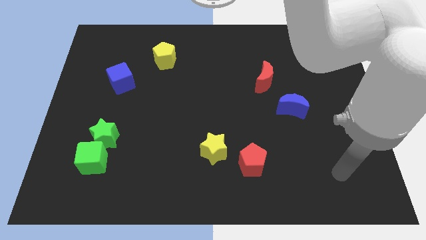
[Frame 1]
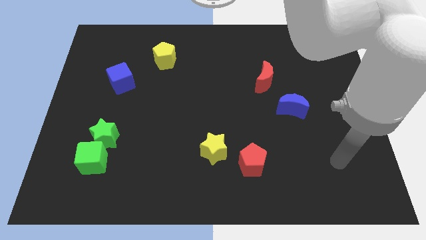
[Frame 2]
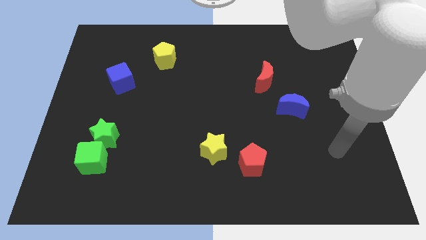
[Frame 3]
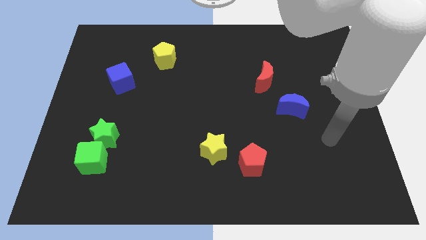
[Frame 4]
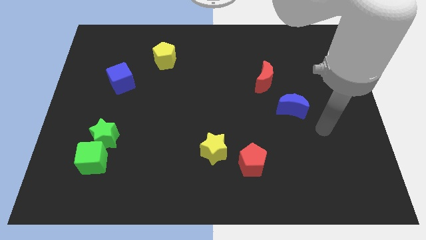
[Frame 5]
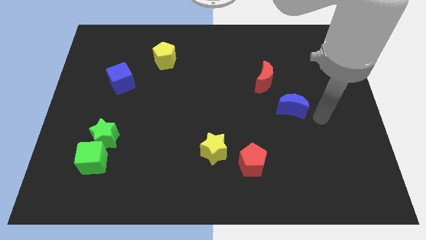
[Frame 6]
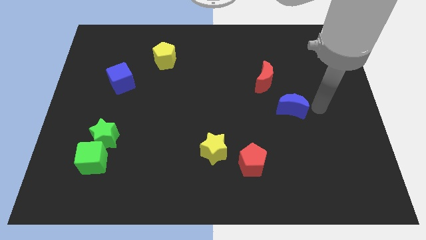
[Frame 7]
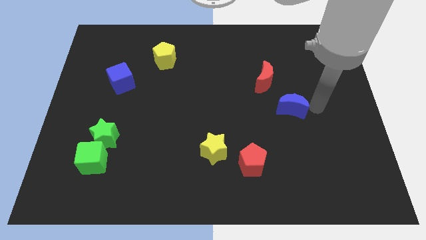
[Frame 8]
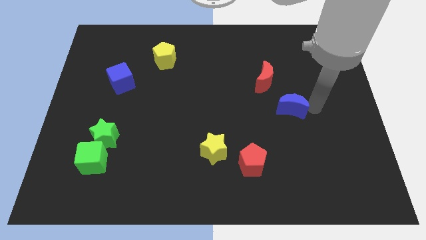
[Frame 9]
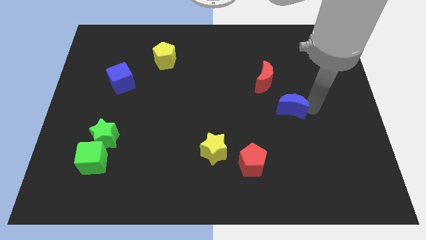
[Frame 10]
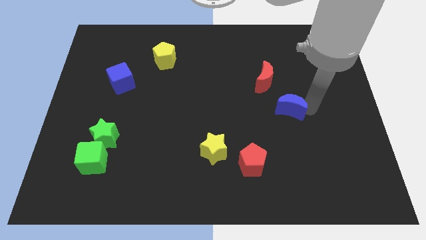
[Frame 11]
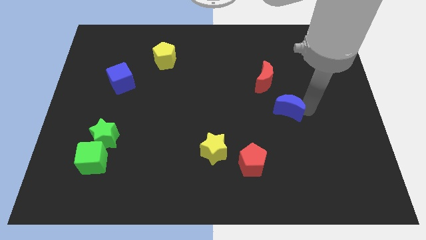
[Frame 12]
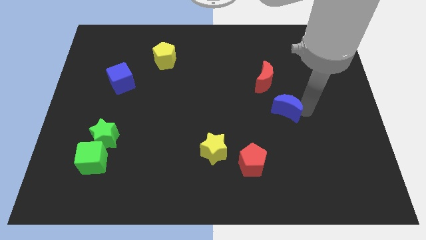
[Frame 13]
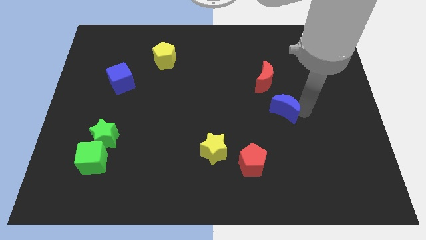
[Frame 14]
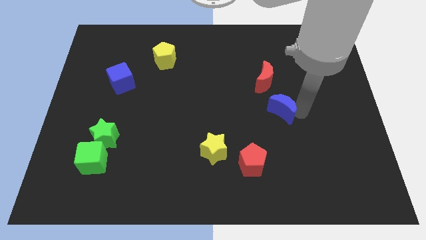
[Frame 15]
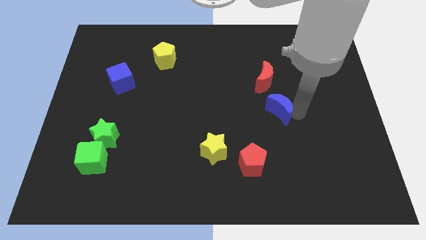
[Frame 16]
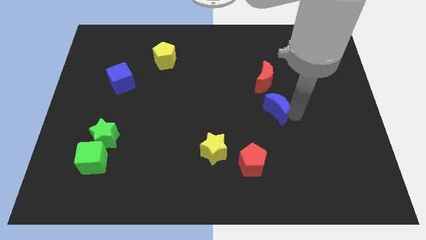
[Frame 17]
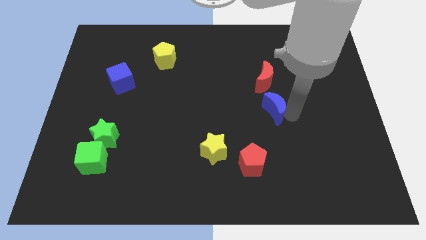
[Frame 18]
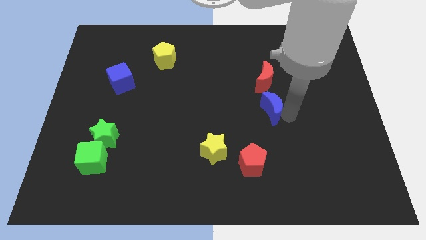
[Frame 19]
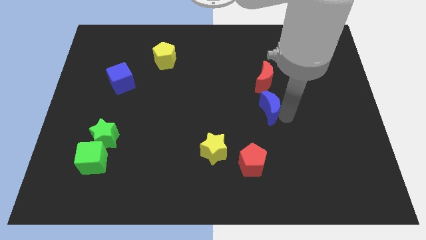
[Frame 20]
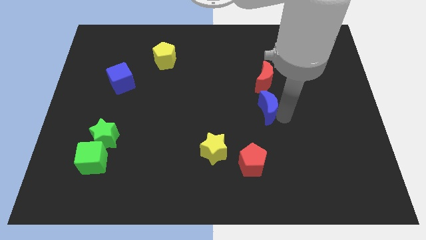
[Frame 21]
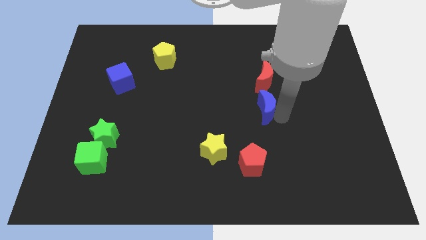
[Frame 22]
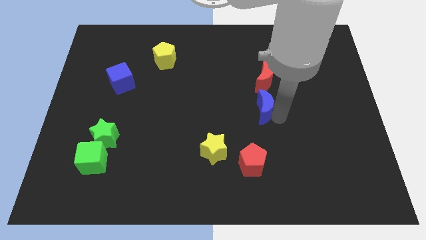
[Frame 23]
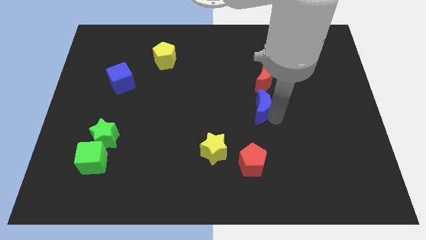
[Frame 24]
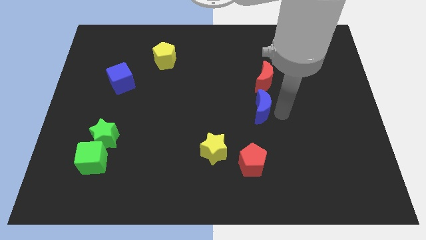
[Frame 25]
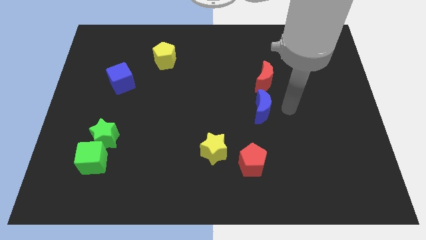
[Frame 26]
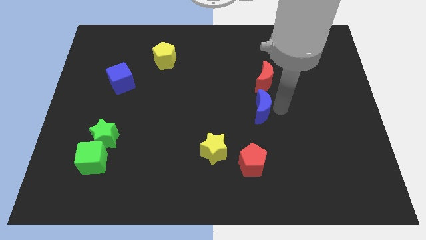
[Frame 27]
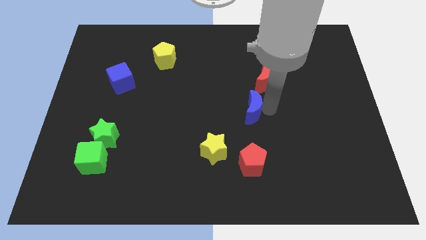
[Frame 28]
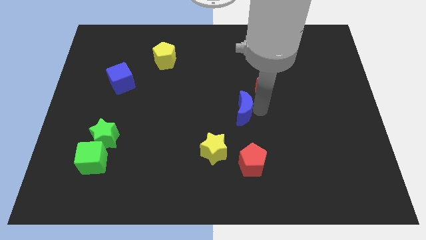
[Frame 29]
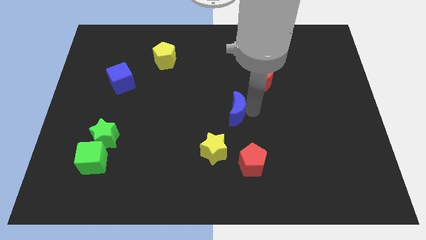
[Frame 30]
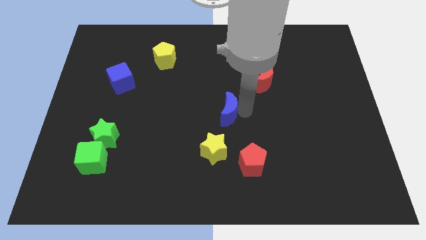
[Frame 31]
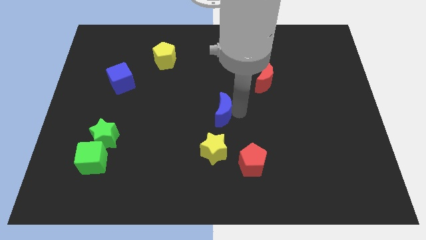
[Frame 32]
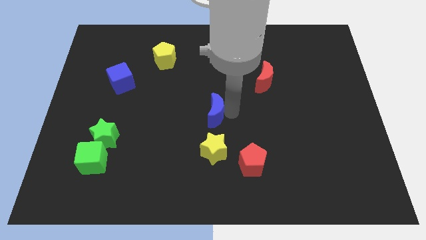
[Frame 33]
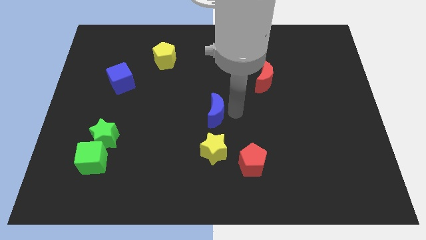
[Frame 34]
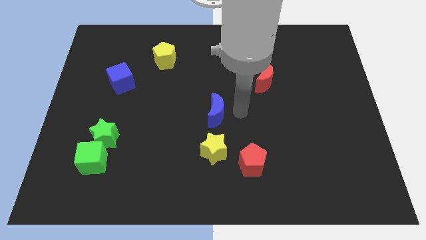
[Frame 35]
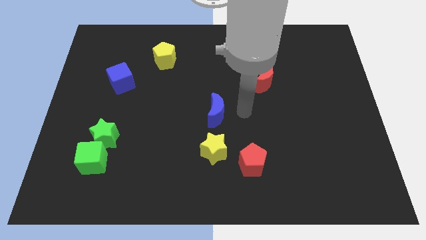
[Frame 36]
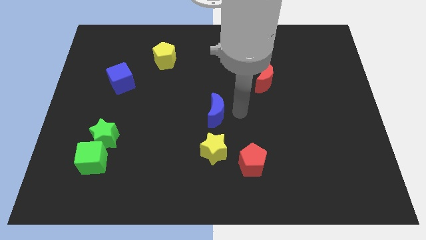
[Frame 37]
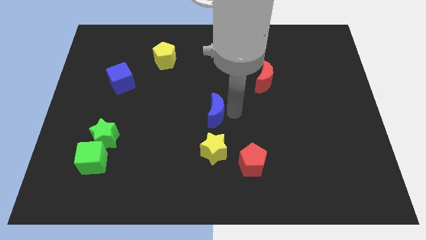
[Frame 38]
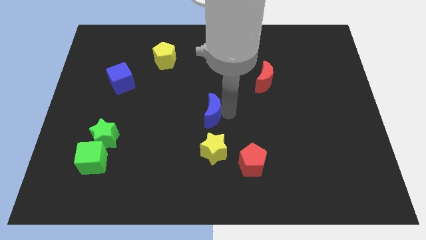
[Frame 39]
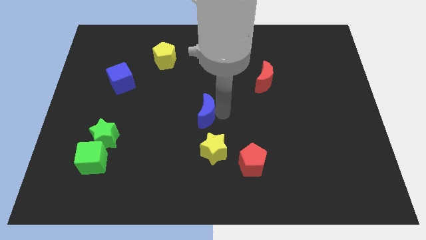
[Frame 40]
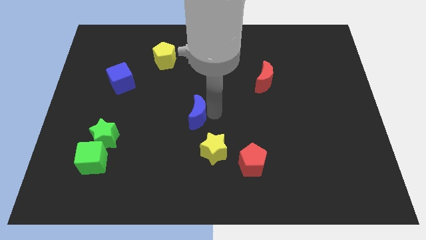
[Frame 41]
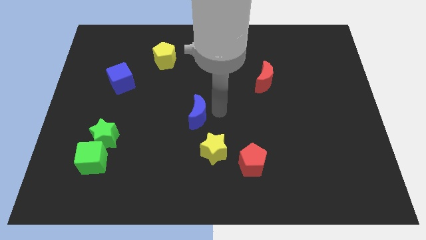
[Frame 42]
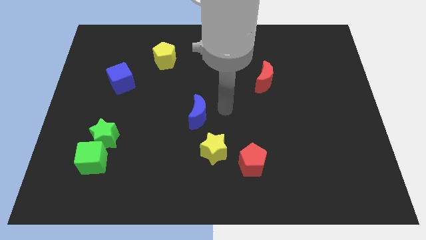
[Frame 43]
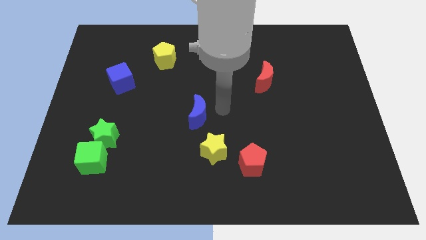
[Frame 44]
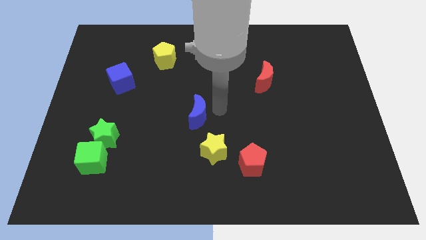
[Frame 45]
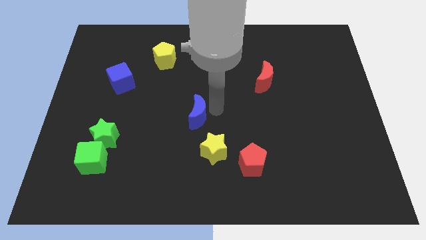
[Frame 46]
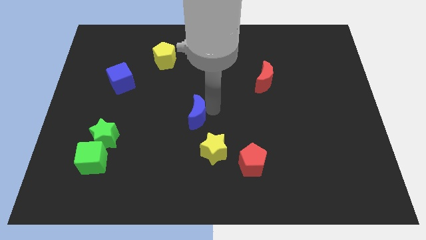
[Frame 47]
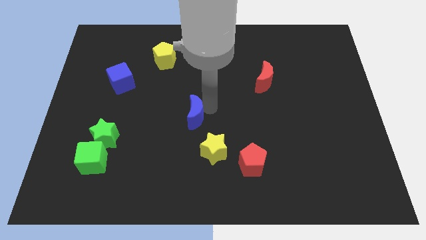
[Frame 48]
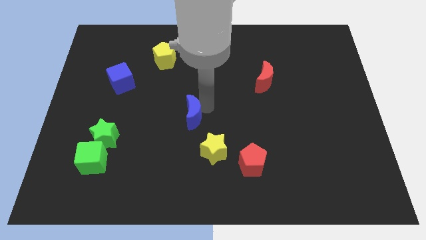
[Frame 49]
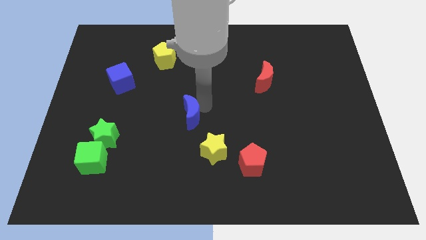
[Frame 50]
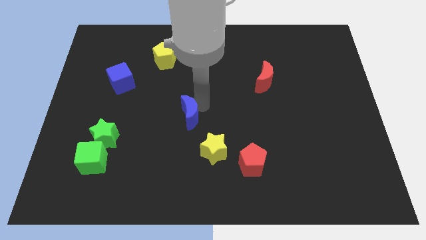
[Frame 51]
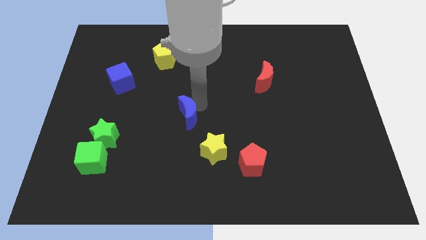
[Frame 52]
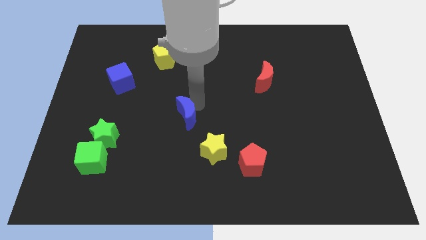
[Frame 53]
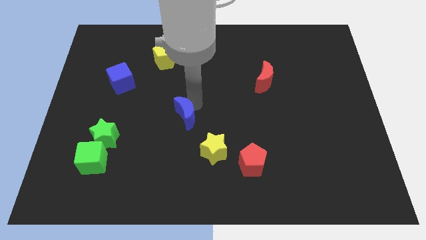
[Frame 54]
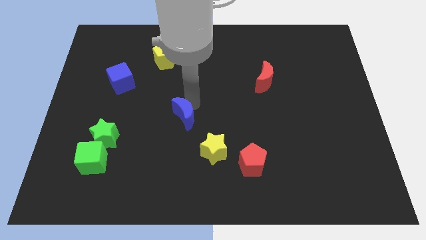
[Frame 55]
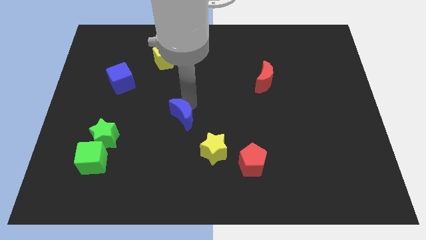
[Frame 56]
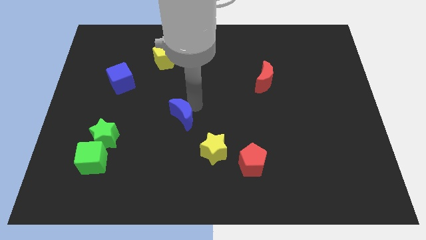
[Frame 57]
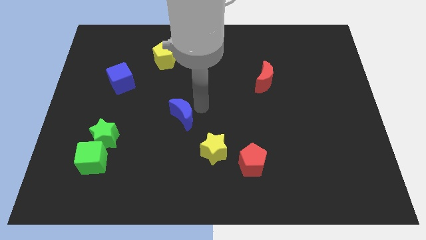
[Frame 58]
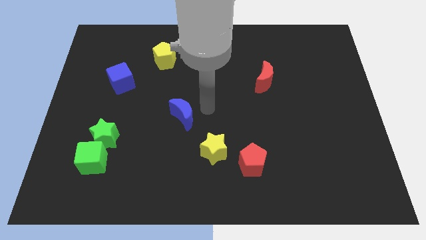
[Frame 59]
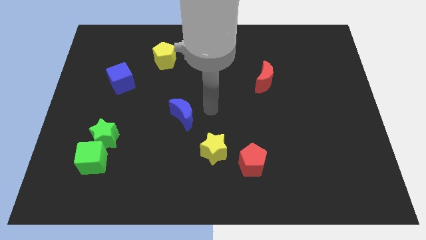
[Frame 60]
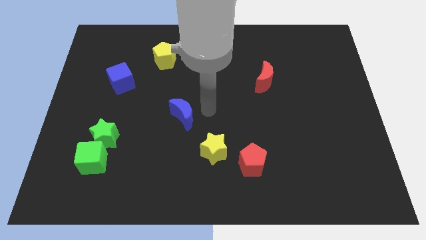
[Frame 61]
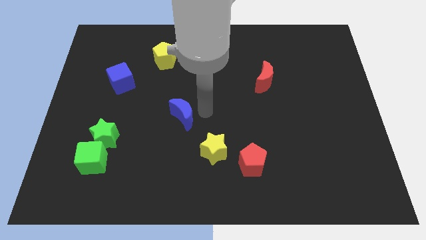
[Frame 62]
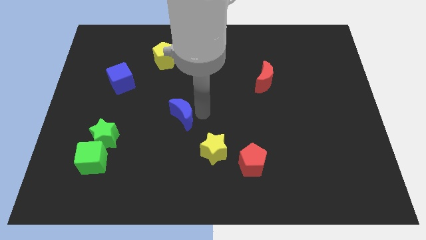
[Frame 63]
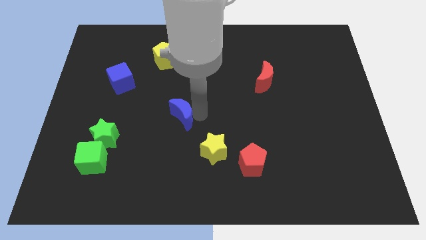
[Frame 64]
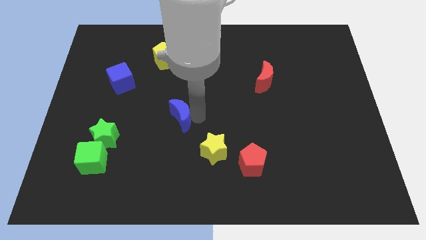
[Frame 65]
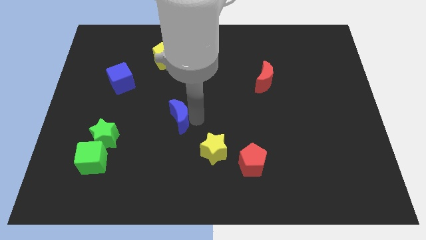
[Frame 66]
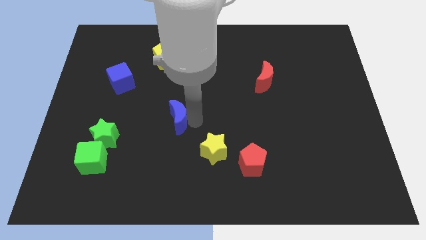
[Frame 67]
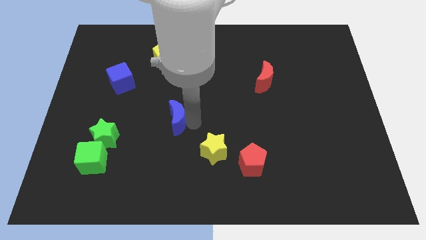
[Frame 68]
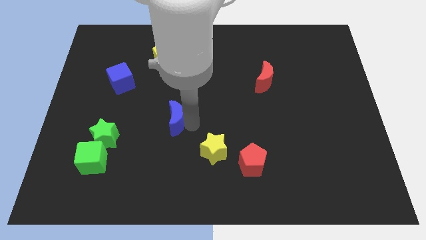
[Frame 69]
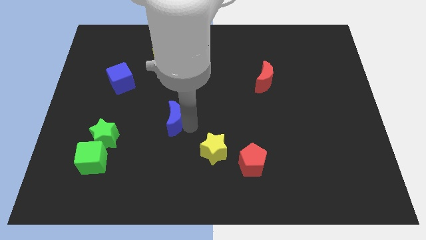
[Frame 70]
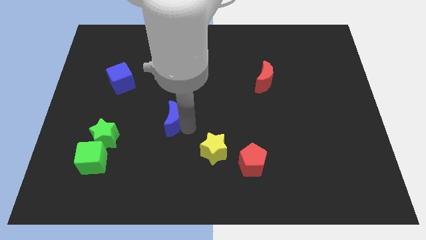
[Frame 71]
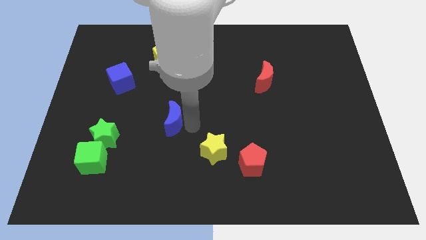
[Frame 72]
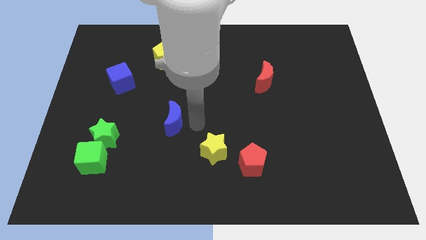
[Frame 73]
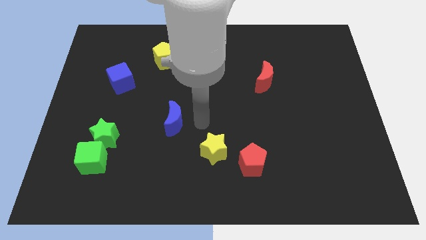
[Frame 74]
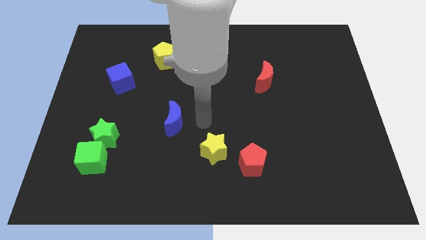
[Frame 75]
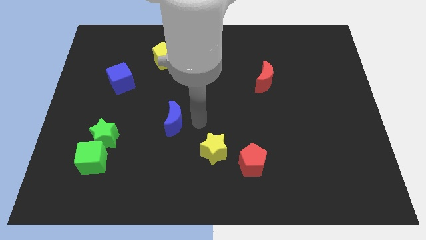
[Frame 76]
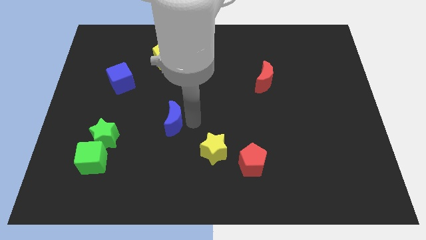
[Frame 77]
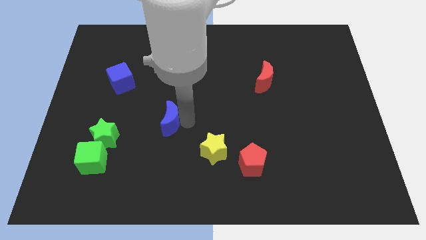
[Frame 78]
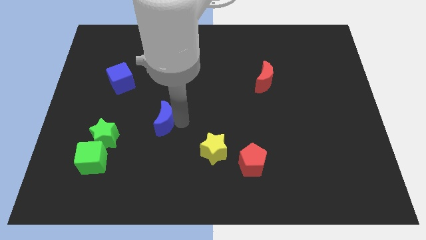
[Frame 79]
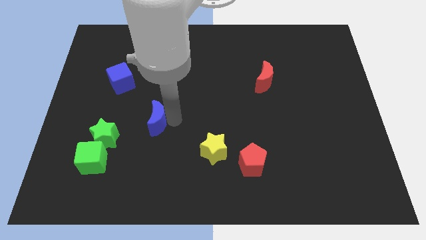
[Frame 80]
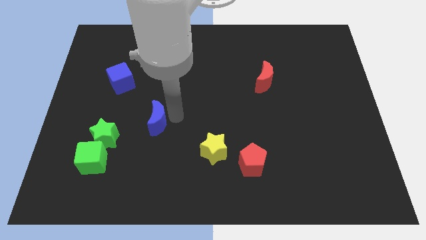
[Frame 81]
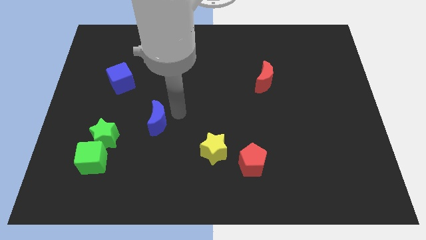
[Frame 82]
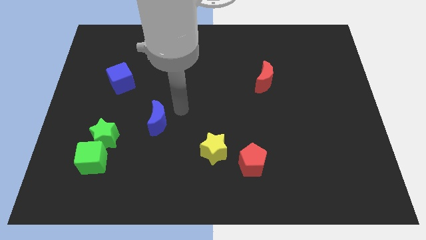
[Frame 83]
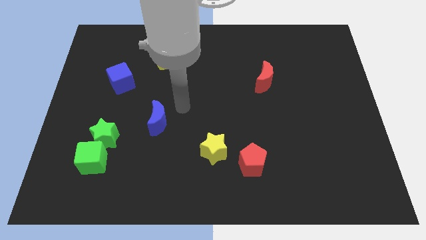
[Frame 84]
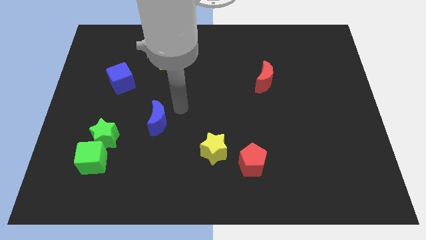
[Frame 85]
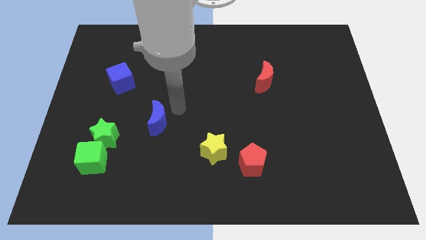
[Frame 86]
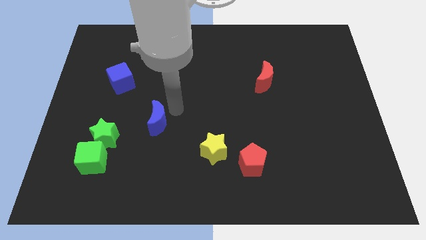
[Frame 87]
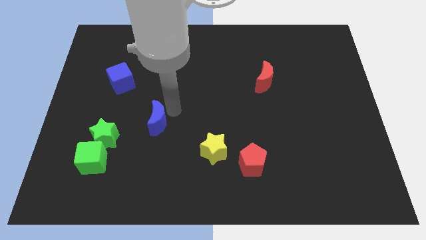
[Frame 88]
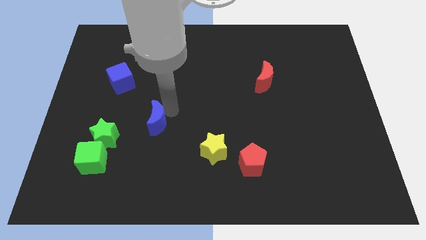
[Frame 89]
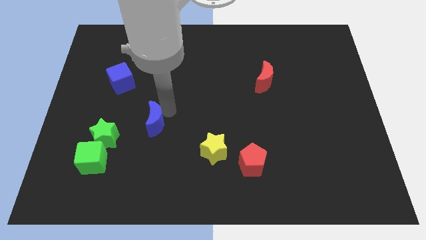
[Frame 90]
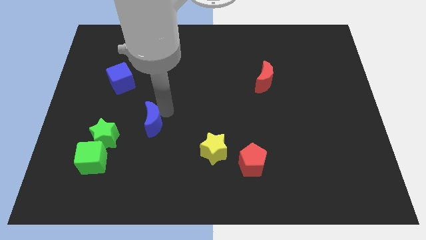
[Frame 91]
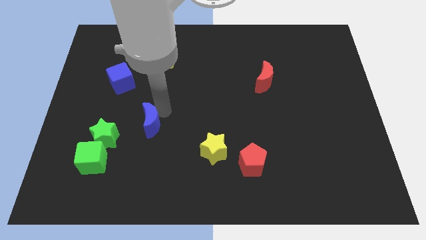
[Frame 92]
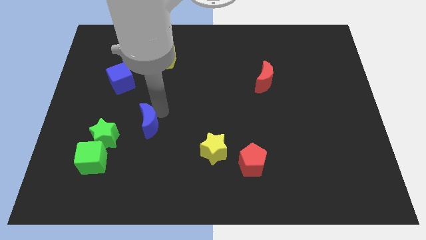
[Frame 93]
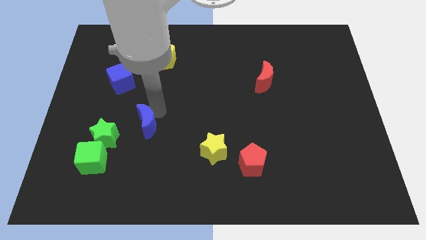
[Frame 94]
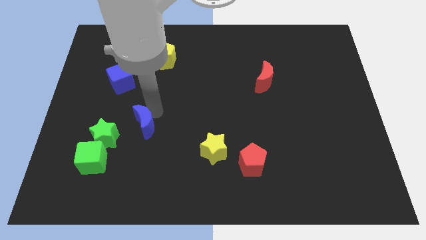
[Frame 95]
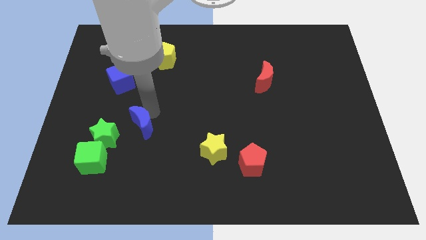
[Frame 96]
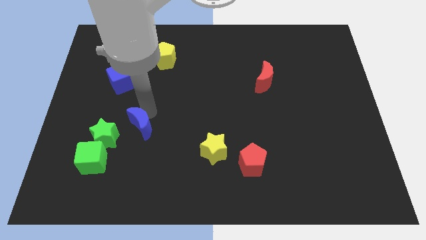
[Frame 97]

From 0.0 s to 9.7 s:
push the blue moon to the top right of the green cube
